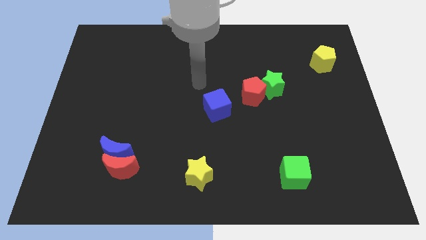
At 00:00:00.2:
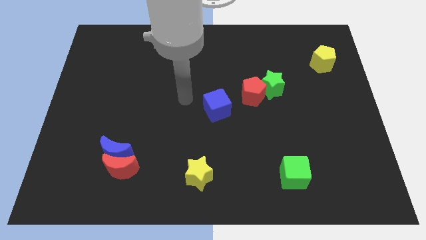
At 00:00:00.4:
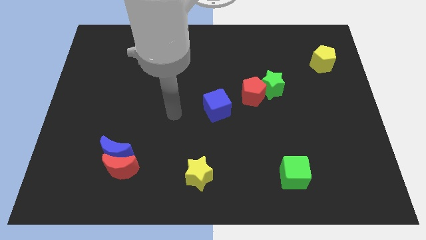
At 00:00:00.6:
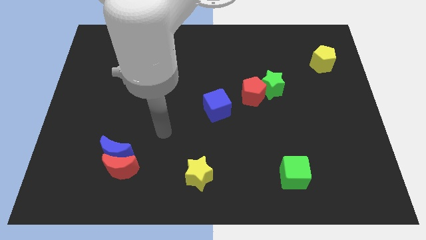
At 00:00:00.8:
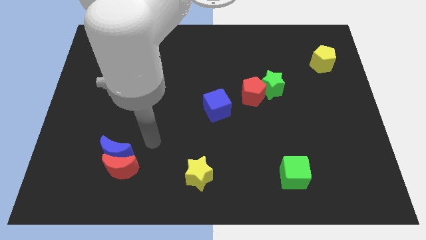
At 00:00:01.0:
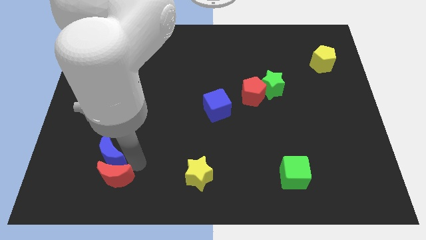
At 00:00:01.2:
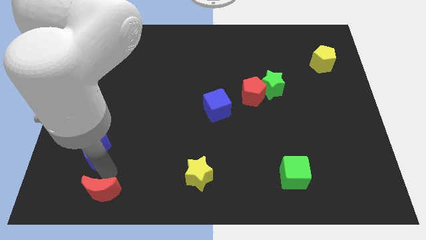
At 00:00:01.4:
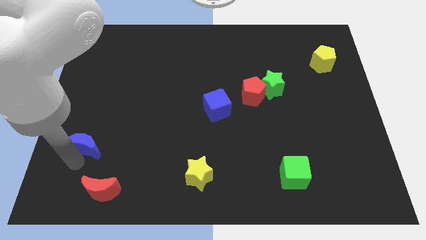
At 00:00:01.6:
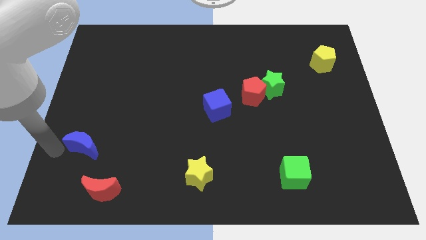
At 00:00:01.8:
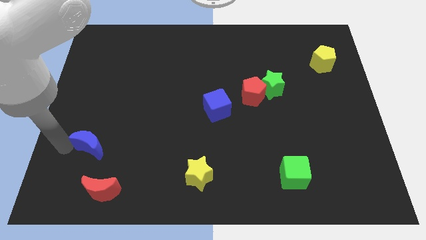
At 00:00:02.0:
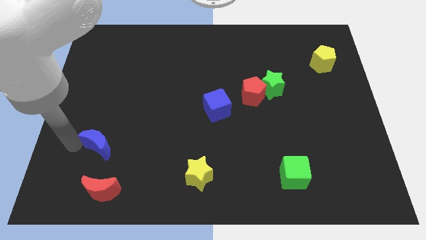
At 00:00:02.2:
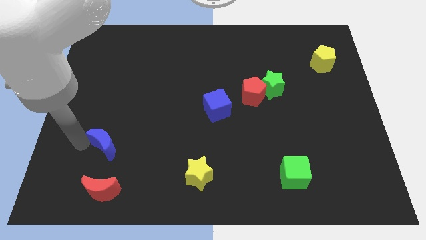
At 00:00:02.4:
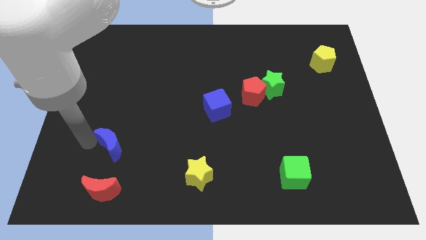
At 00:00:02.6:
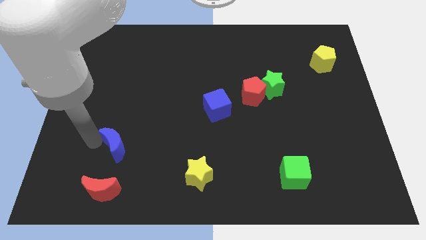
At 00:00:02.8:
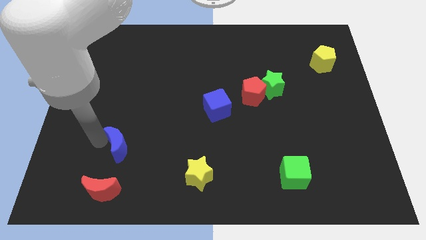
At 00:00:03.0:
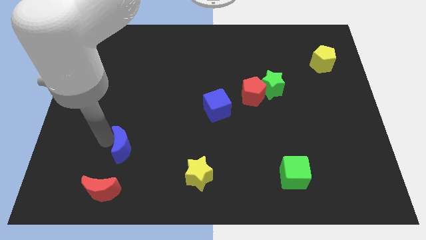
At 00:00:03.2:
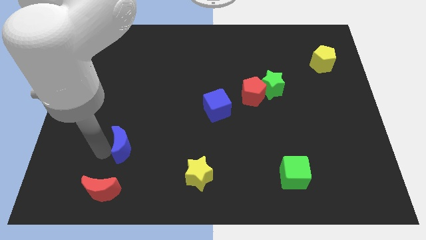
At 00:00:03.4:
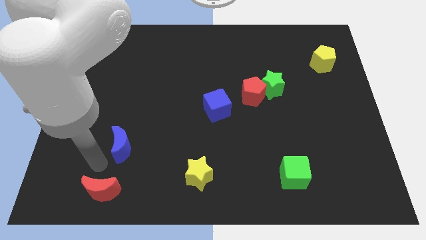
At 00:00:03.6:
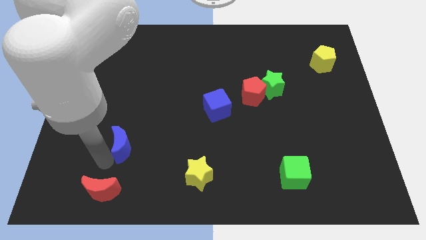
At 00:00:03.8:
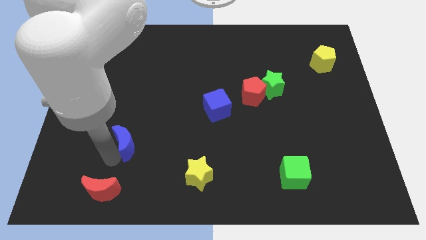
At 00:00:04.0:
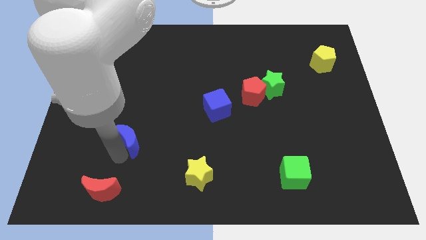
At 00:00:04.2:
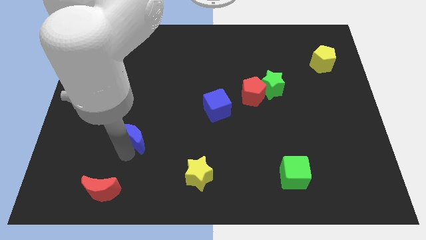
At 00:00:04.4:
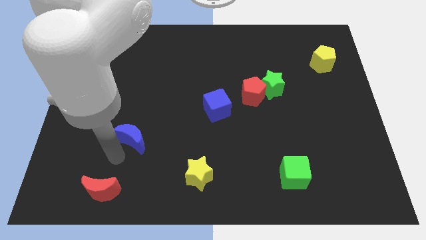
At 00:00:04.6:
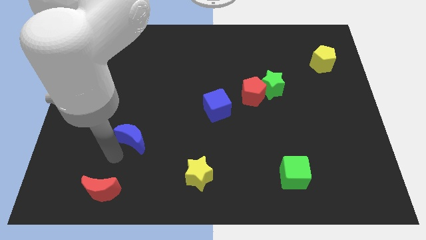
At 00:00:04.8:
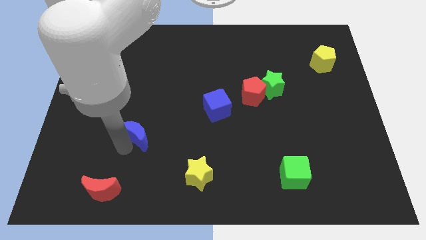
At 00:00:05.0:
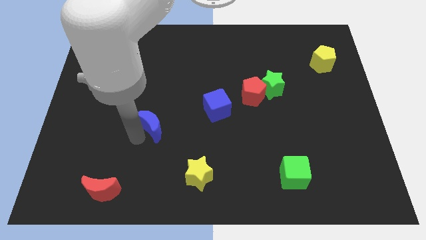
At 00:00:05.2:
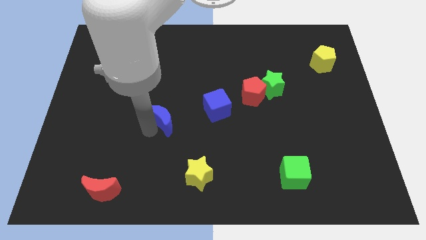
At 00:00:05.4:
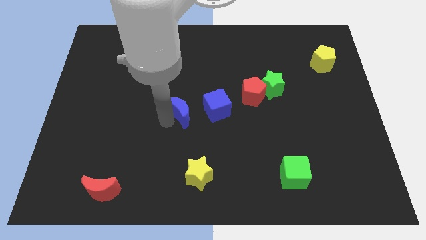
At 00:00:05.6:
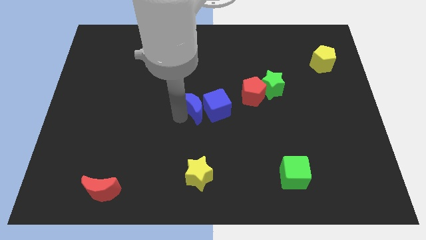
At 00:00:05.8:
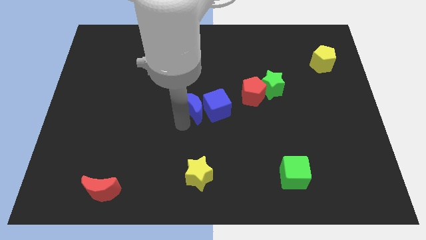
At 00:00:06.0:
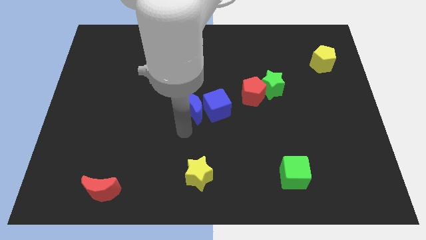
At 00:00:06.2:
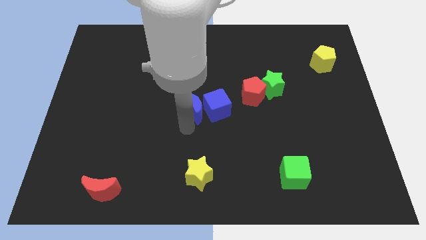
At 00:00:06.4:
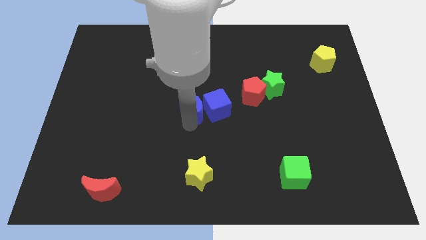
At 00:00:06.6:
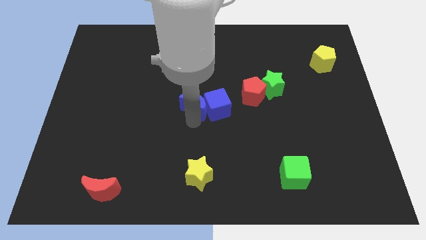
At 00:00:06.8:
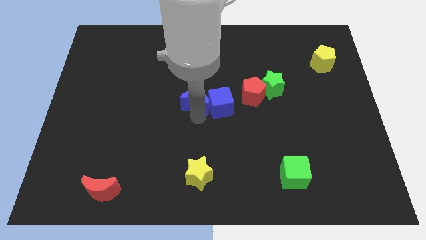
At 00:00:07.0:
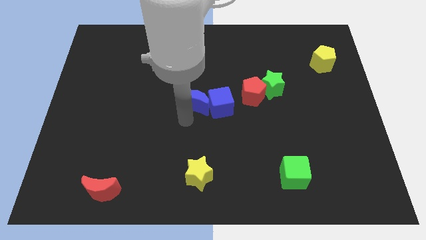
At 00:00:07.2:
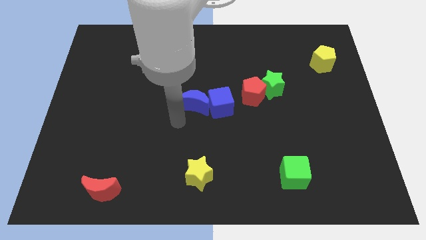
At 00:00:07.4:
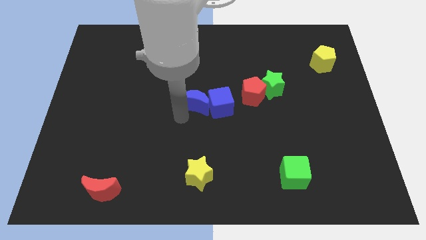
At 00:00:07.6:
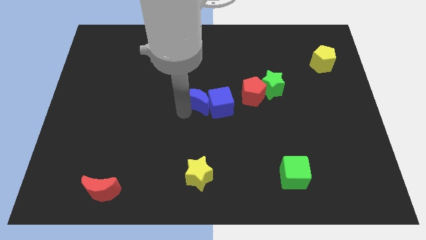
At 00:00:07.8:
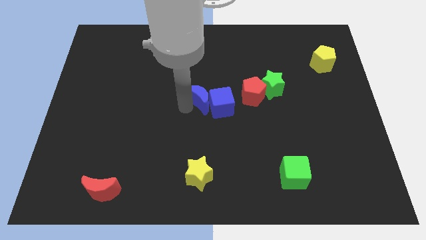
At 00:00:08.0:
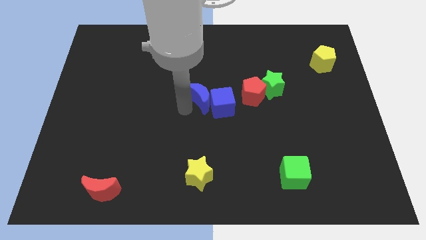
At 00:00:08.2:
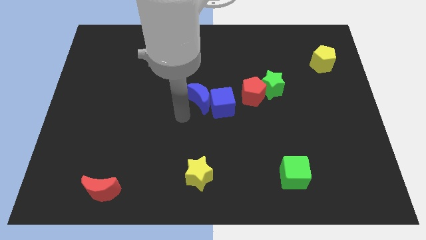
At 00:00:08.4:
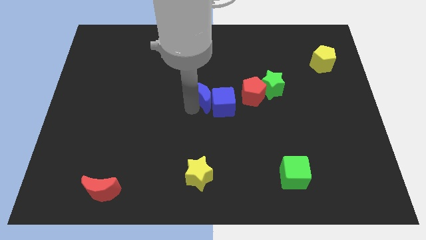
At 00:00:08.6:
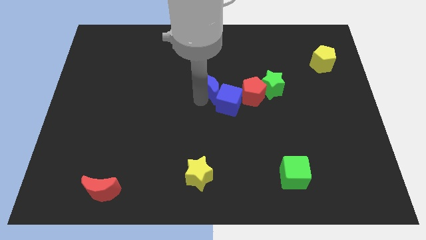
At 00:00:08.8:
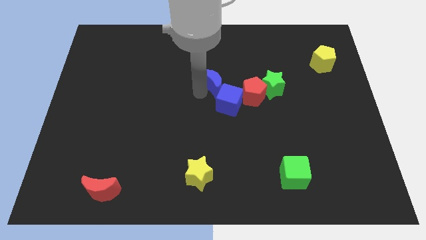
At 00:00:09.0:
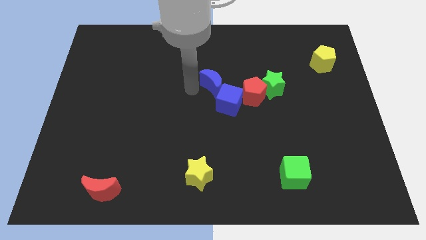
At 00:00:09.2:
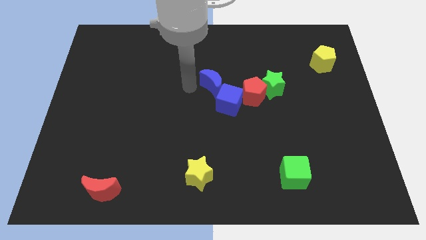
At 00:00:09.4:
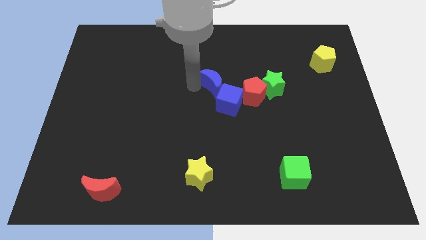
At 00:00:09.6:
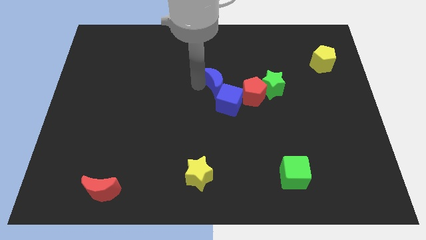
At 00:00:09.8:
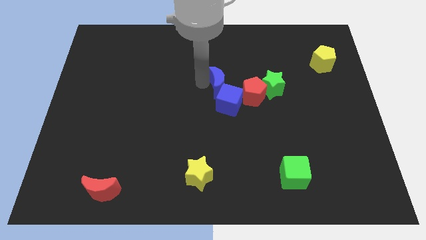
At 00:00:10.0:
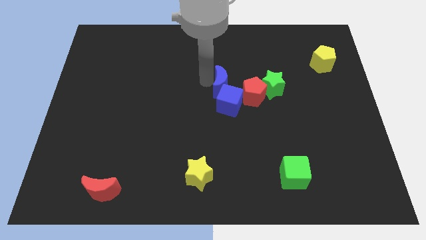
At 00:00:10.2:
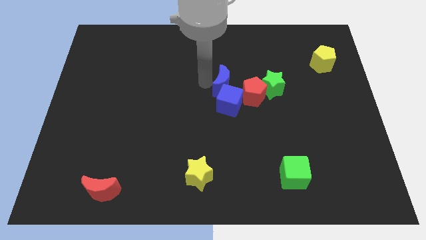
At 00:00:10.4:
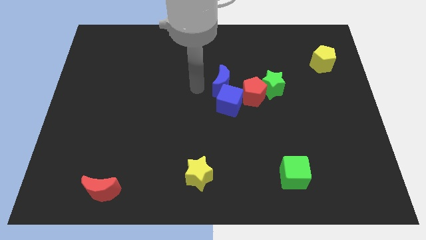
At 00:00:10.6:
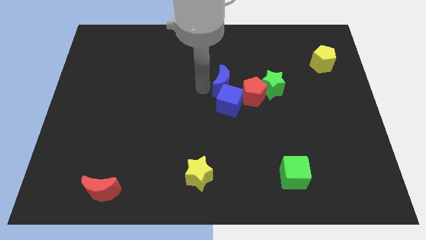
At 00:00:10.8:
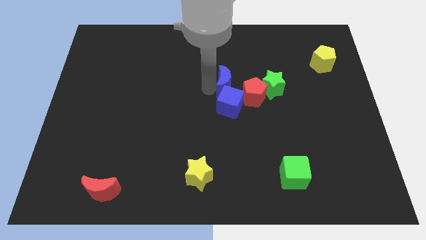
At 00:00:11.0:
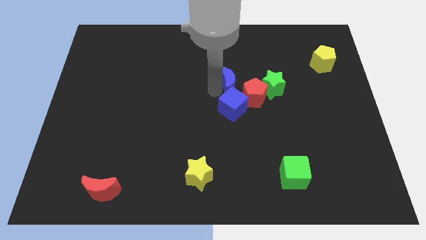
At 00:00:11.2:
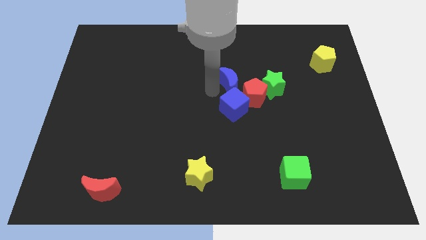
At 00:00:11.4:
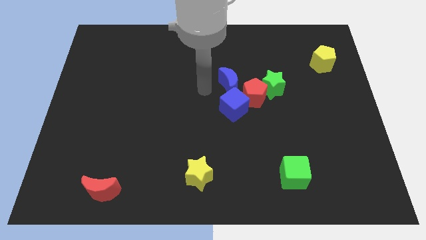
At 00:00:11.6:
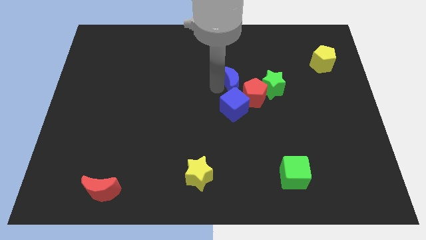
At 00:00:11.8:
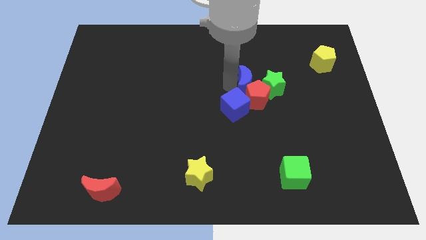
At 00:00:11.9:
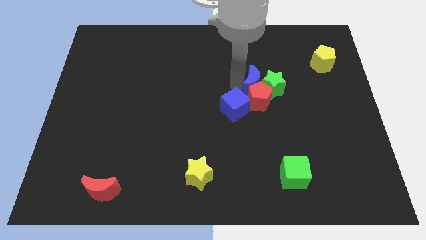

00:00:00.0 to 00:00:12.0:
put the blue moon to the green star
